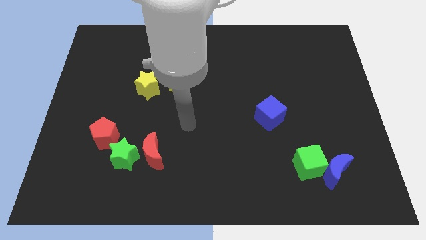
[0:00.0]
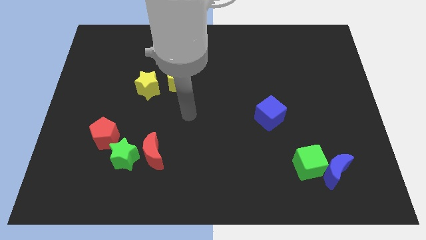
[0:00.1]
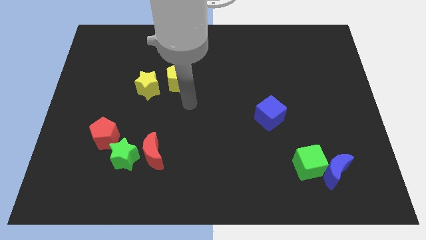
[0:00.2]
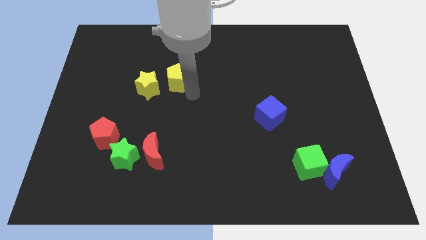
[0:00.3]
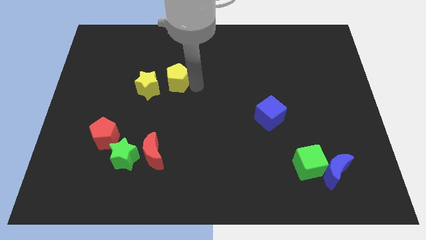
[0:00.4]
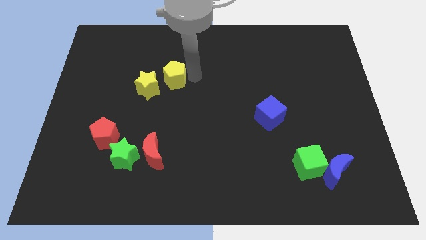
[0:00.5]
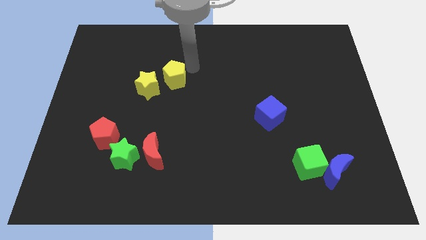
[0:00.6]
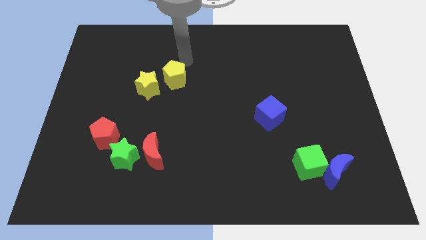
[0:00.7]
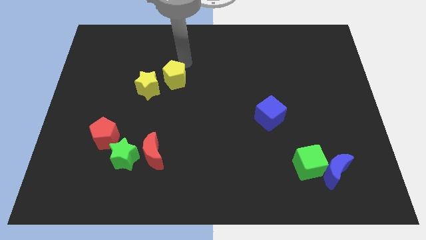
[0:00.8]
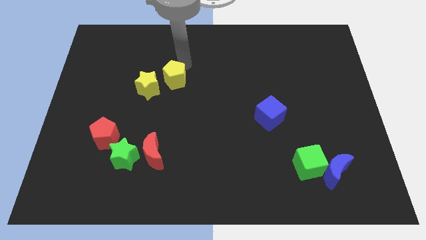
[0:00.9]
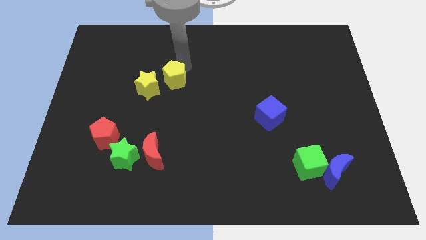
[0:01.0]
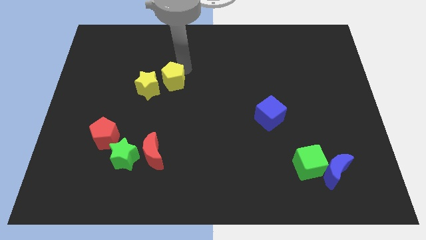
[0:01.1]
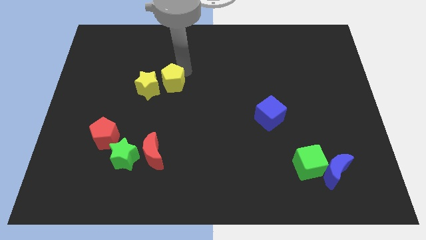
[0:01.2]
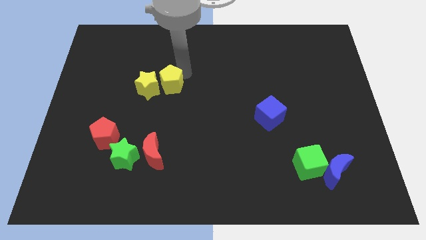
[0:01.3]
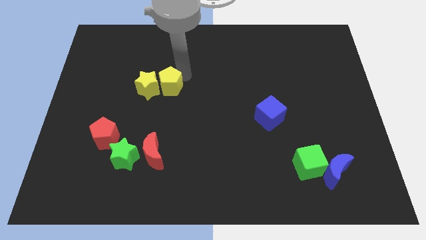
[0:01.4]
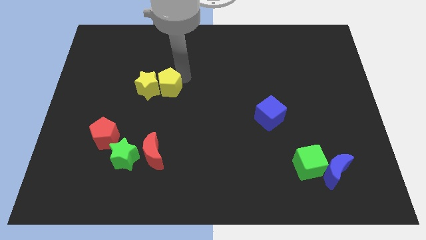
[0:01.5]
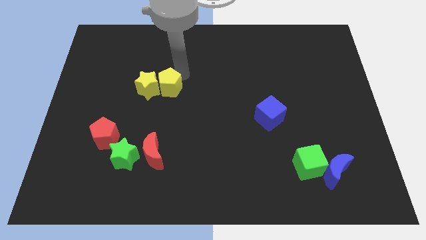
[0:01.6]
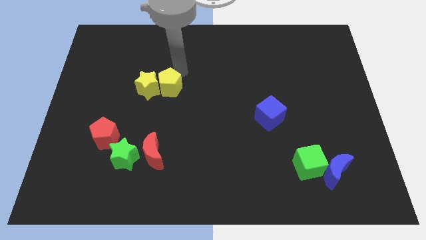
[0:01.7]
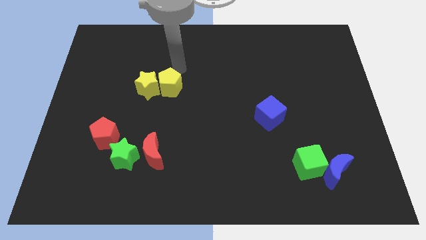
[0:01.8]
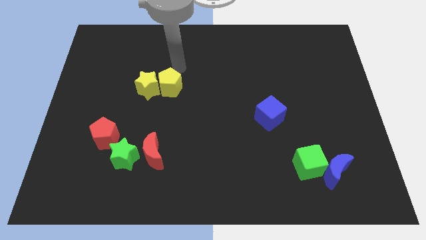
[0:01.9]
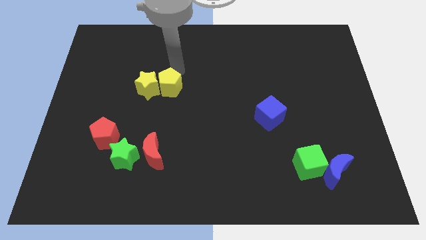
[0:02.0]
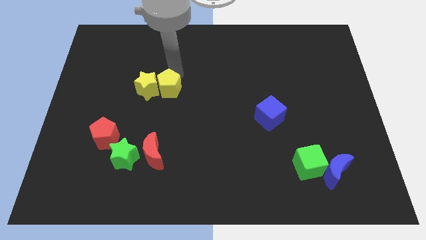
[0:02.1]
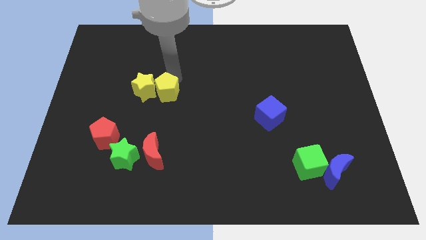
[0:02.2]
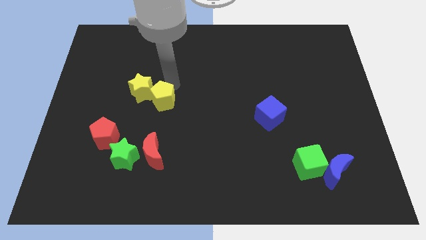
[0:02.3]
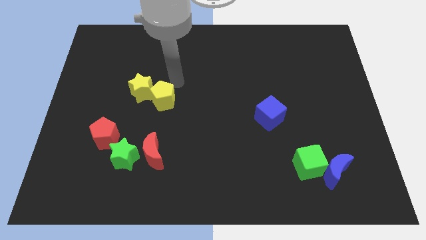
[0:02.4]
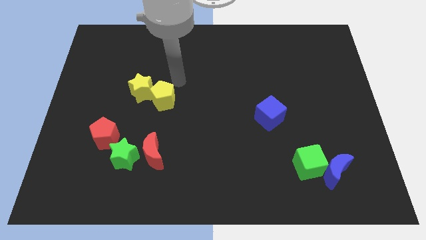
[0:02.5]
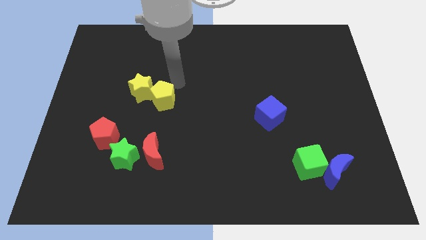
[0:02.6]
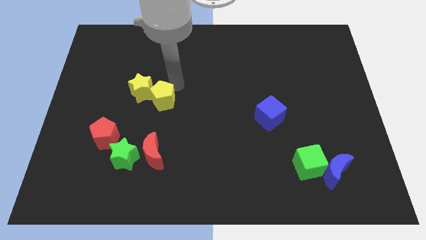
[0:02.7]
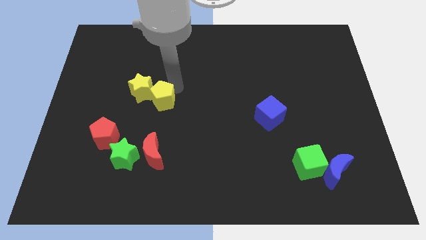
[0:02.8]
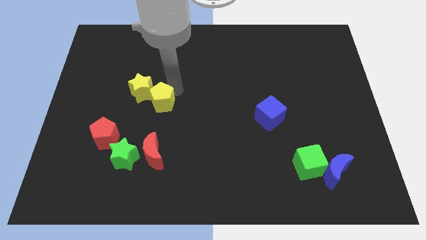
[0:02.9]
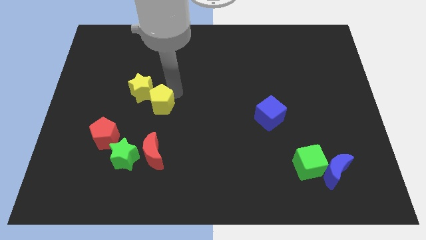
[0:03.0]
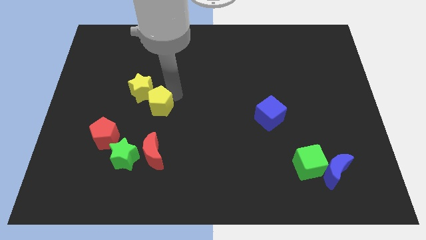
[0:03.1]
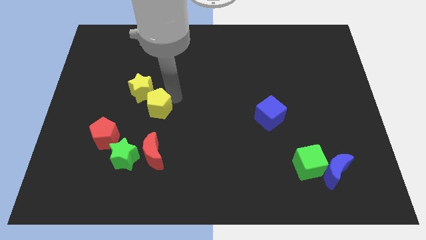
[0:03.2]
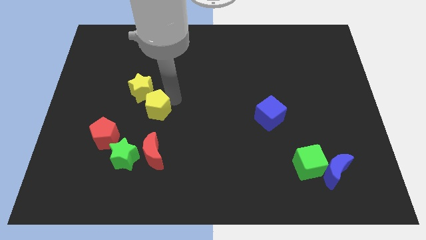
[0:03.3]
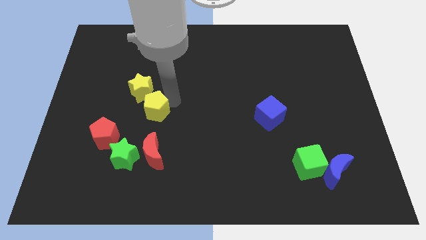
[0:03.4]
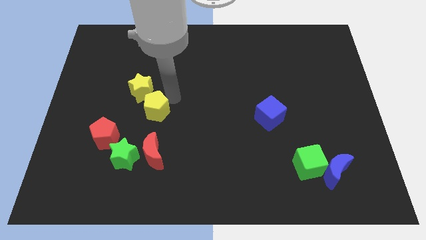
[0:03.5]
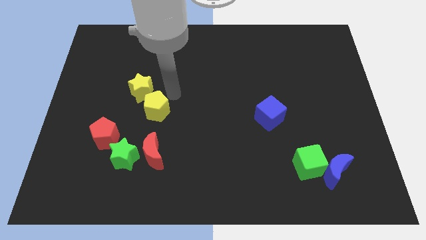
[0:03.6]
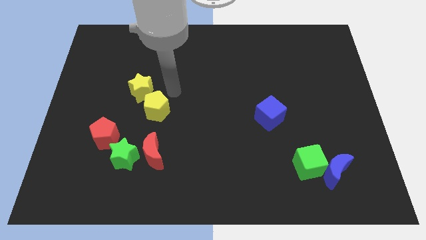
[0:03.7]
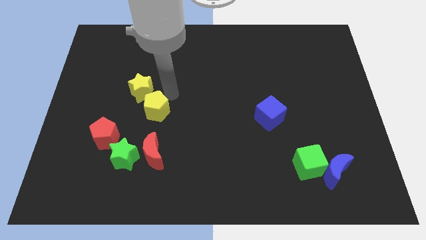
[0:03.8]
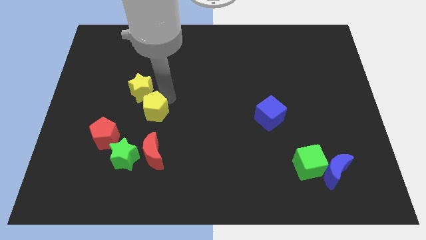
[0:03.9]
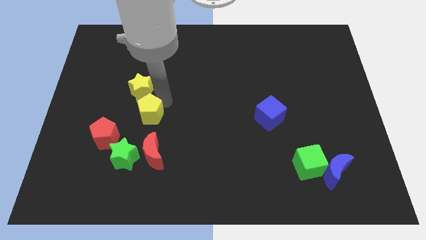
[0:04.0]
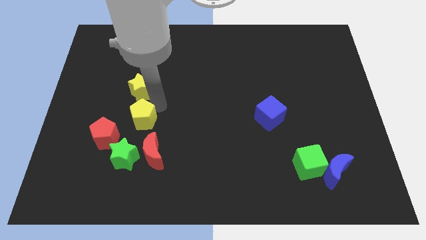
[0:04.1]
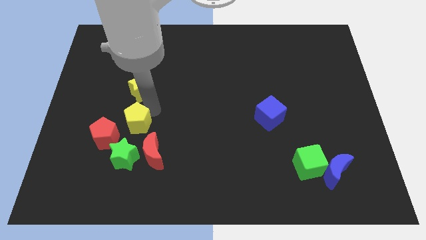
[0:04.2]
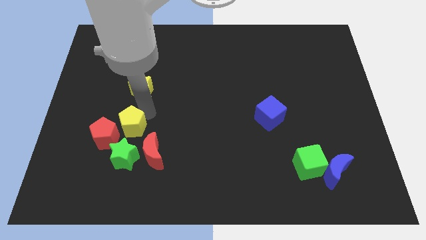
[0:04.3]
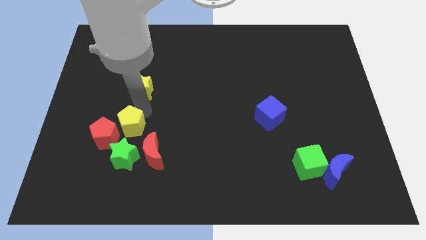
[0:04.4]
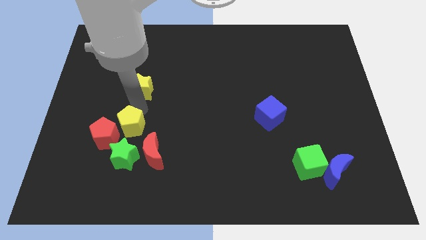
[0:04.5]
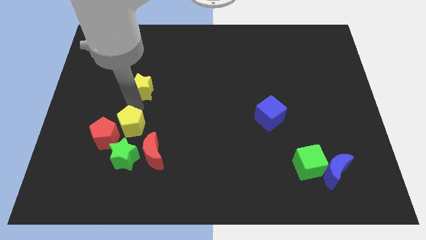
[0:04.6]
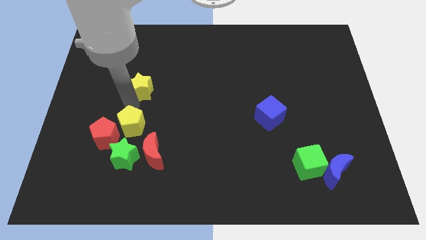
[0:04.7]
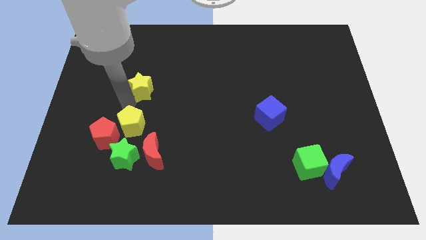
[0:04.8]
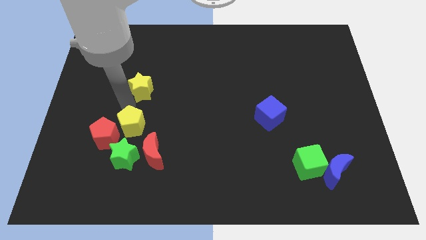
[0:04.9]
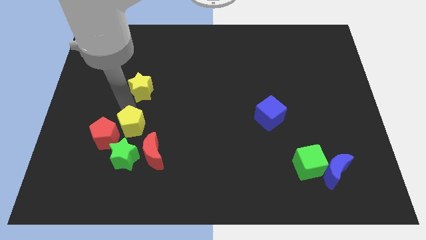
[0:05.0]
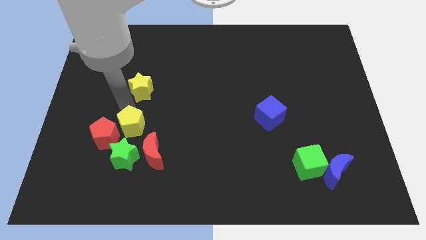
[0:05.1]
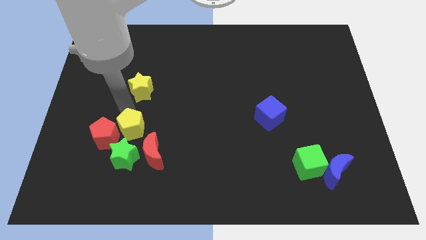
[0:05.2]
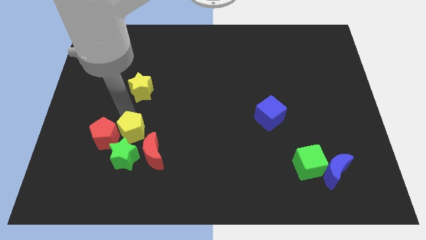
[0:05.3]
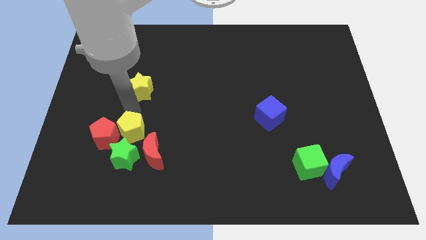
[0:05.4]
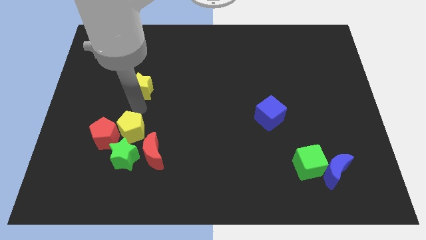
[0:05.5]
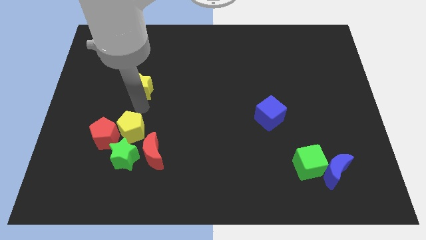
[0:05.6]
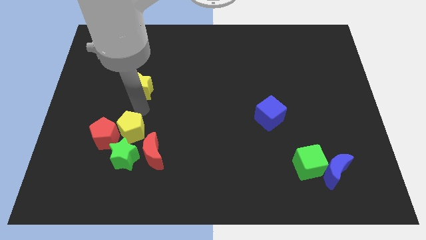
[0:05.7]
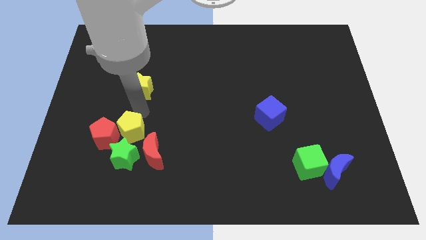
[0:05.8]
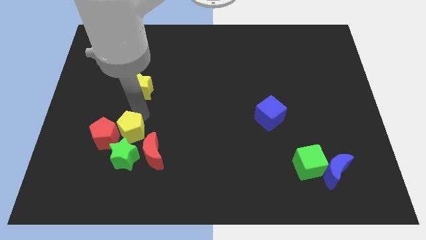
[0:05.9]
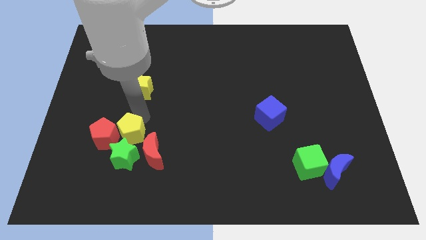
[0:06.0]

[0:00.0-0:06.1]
move the yellow pentagon towards the green star

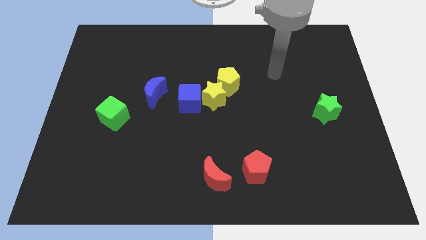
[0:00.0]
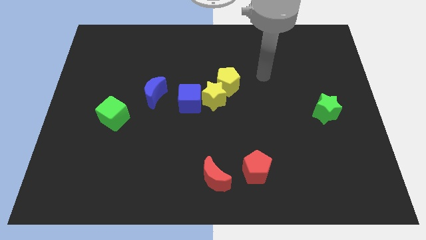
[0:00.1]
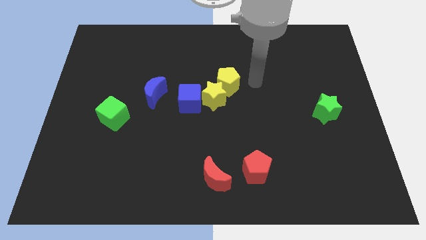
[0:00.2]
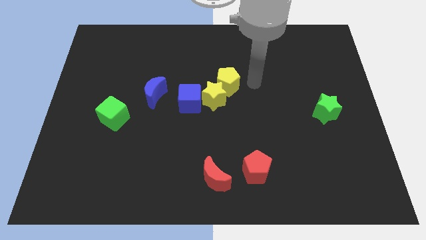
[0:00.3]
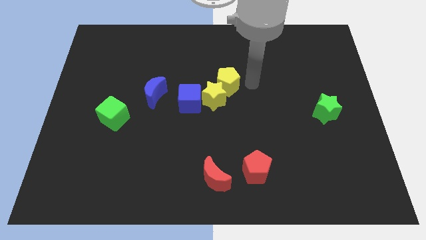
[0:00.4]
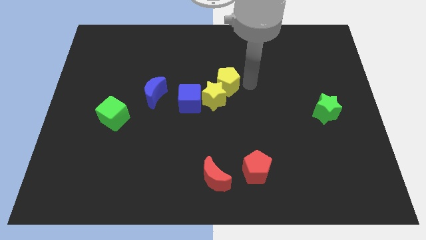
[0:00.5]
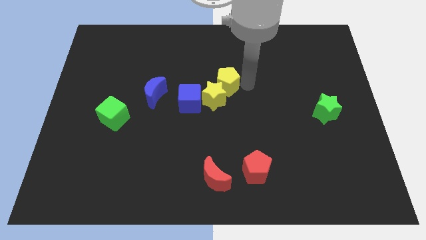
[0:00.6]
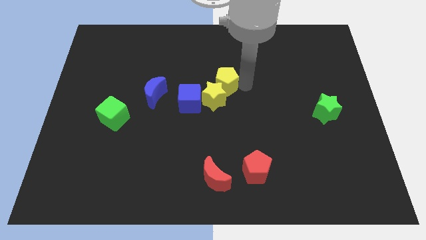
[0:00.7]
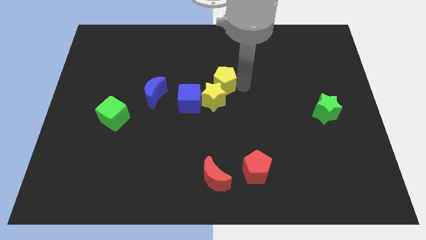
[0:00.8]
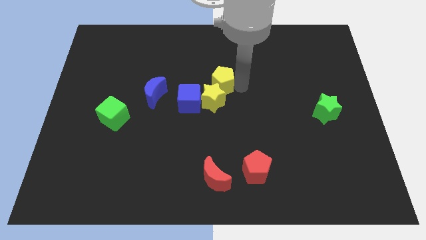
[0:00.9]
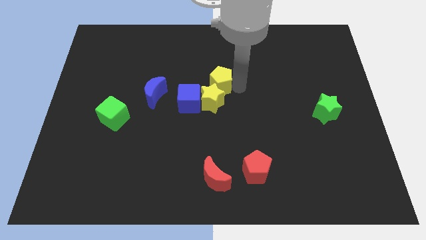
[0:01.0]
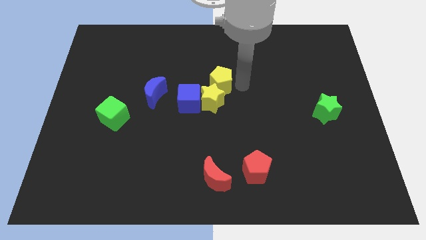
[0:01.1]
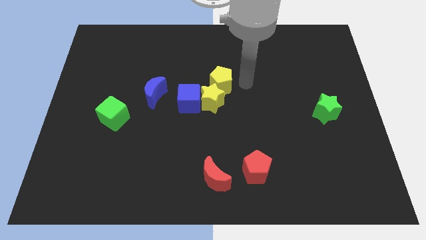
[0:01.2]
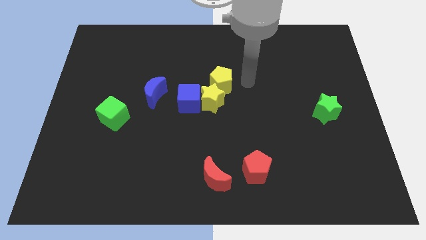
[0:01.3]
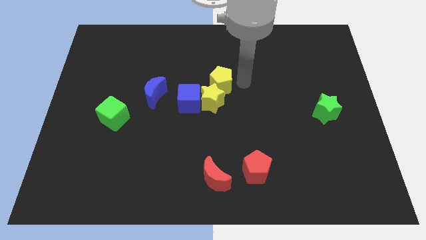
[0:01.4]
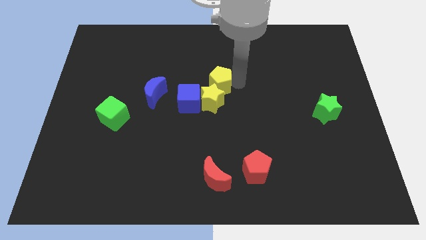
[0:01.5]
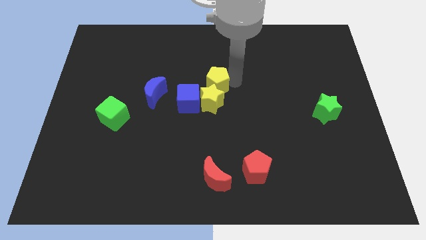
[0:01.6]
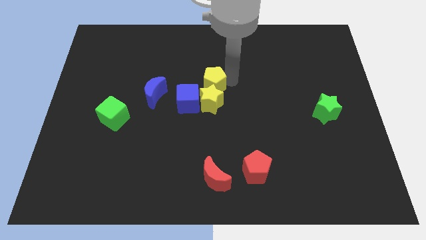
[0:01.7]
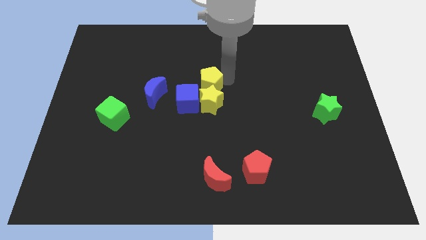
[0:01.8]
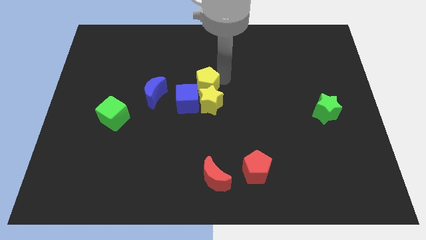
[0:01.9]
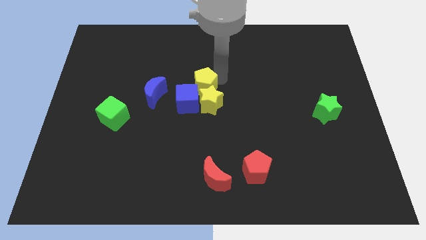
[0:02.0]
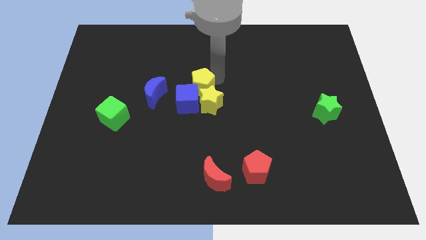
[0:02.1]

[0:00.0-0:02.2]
move the yellow pentagon to the blue cube
